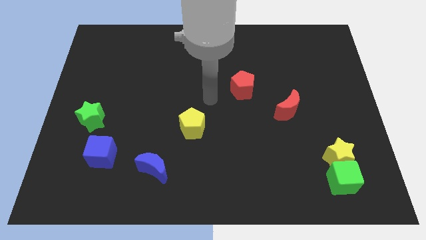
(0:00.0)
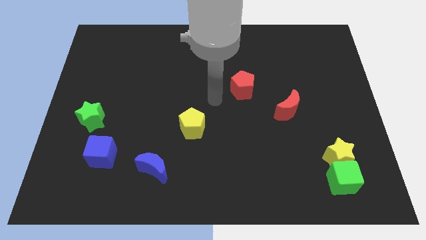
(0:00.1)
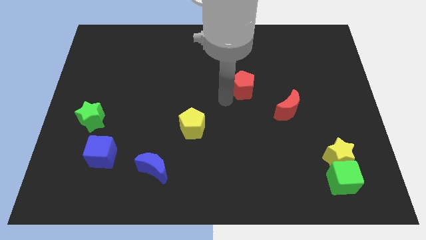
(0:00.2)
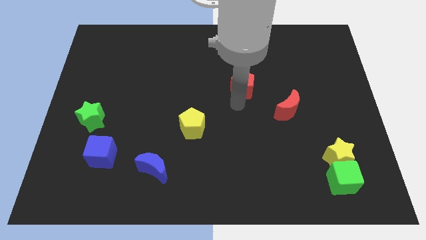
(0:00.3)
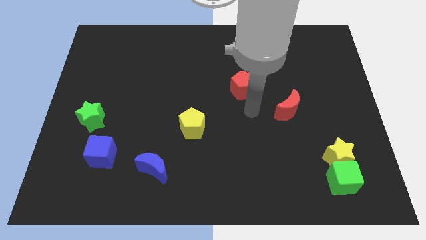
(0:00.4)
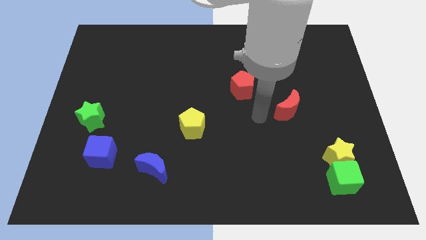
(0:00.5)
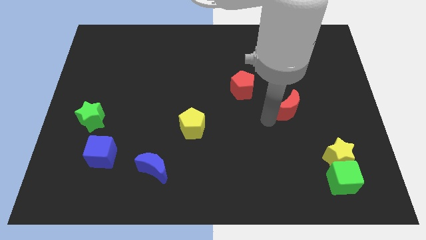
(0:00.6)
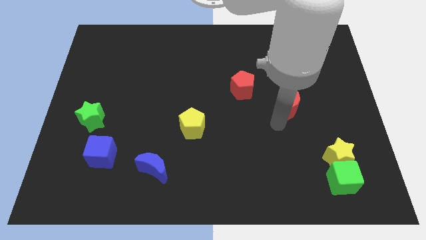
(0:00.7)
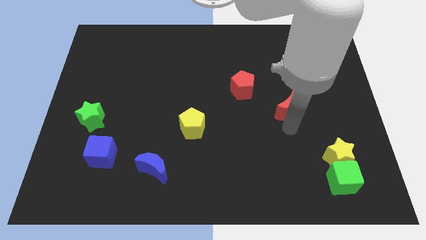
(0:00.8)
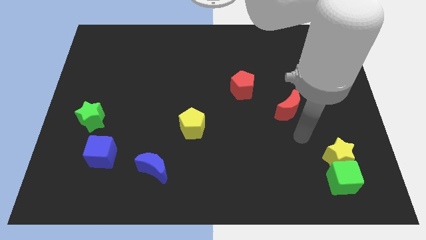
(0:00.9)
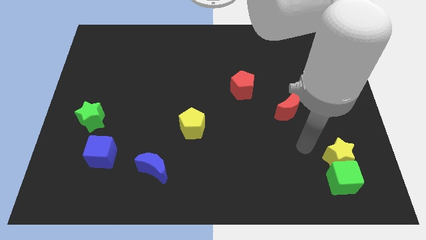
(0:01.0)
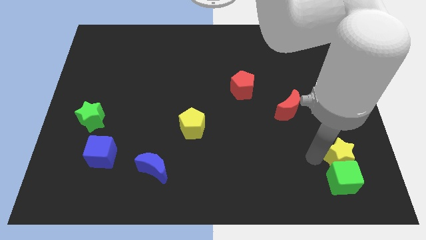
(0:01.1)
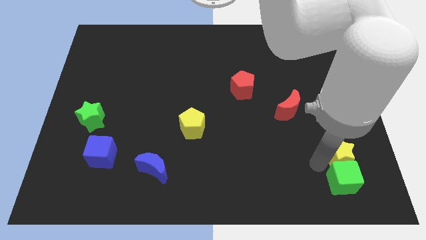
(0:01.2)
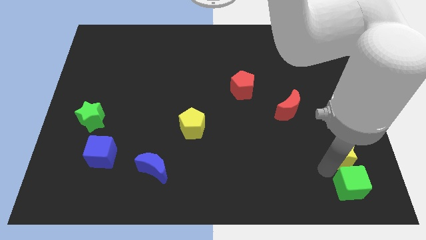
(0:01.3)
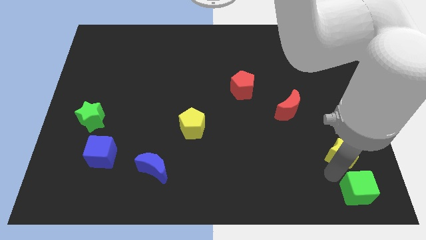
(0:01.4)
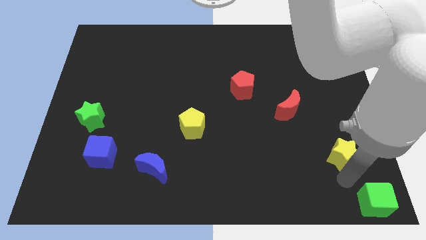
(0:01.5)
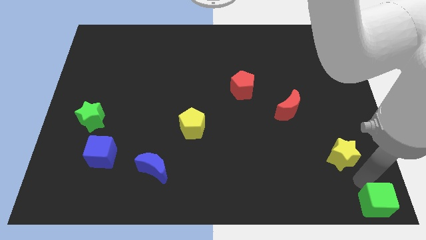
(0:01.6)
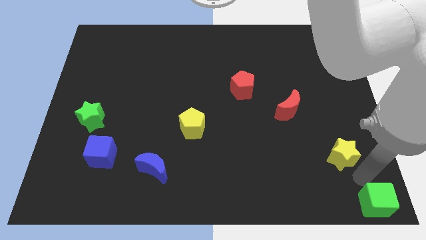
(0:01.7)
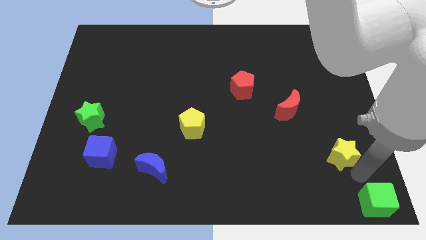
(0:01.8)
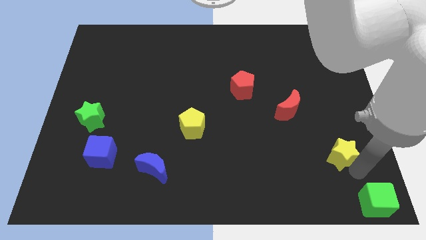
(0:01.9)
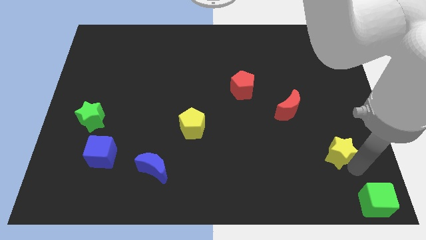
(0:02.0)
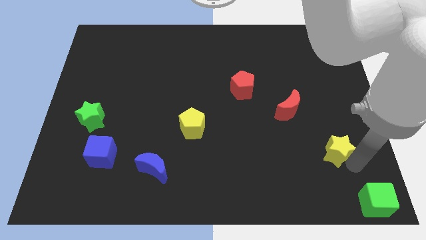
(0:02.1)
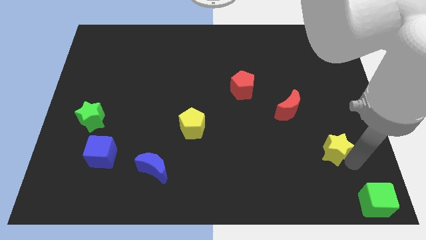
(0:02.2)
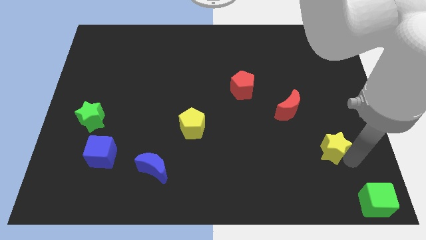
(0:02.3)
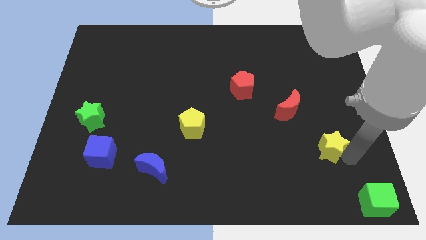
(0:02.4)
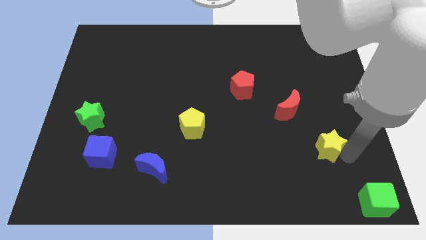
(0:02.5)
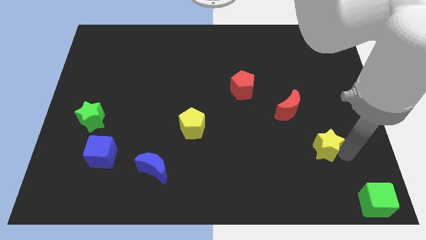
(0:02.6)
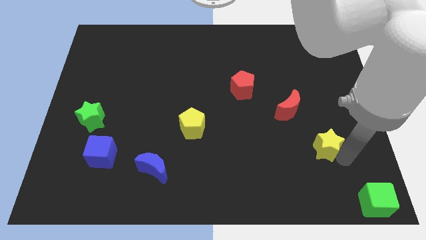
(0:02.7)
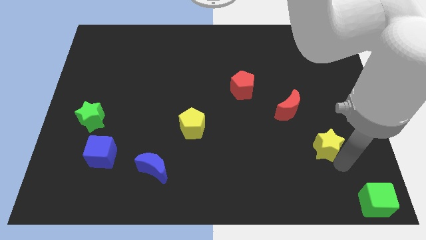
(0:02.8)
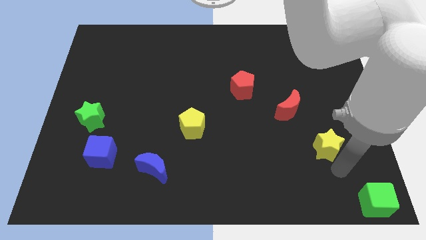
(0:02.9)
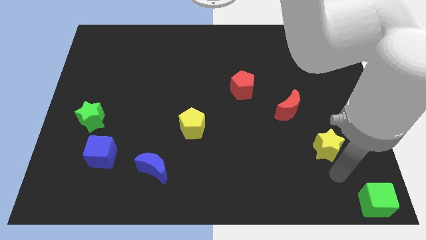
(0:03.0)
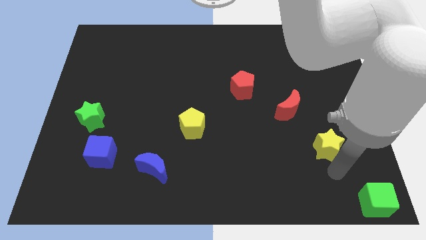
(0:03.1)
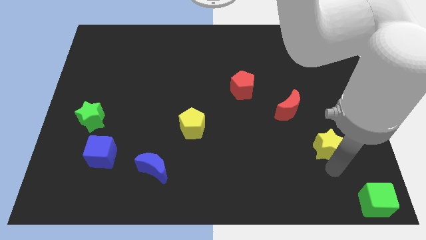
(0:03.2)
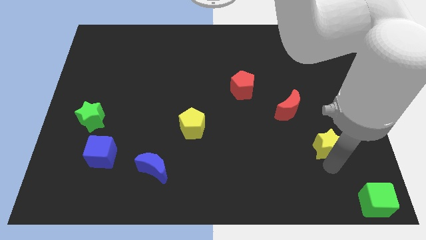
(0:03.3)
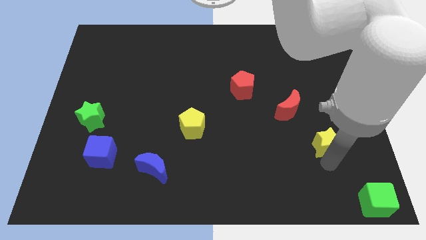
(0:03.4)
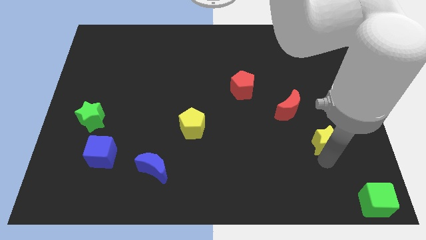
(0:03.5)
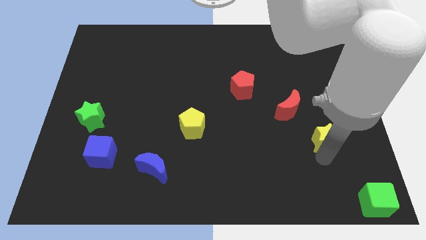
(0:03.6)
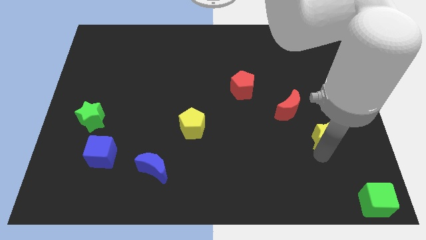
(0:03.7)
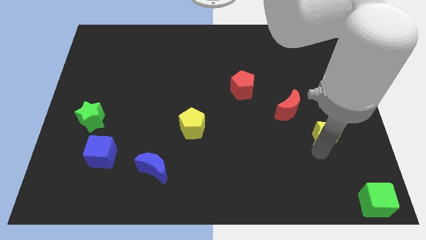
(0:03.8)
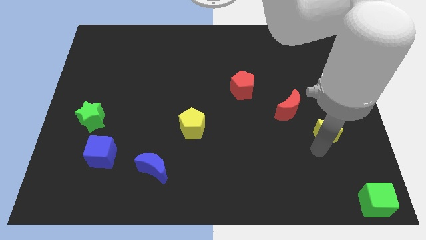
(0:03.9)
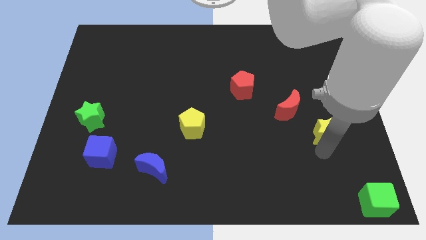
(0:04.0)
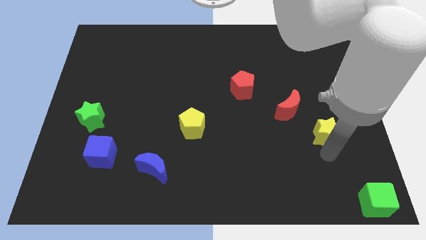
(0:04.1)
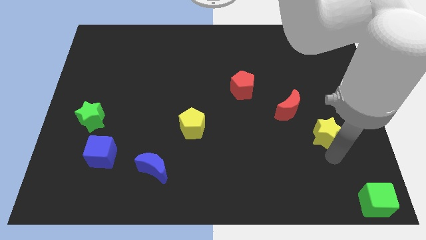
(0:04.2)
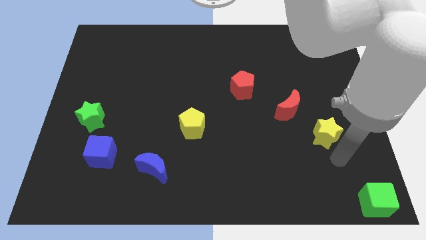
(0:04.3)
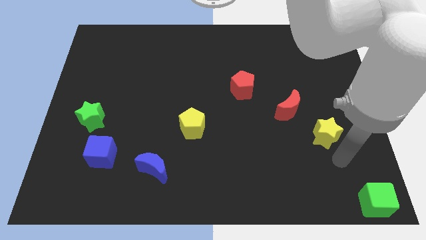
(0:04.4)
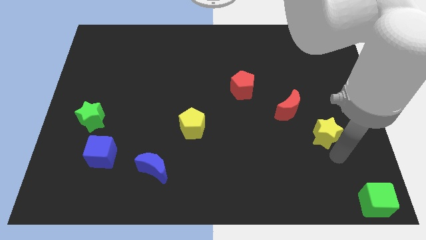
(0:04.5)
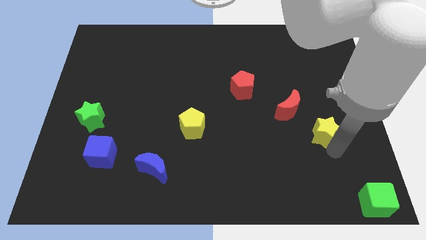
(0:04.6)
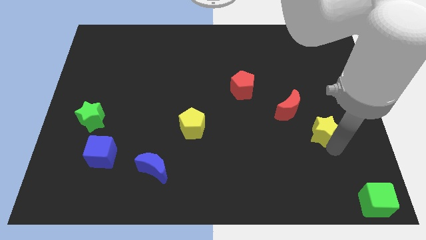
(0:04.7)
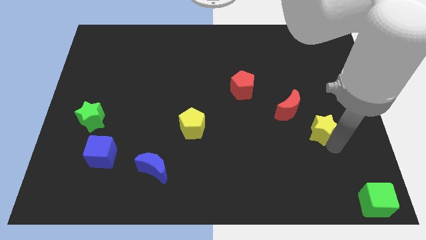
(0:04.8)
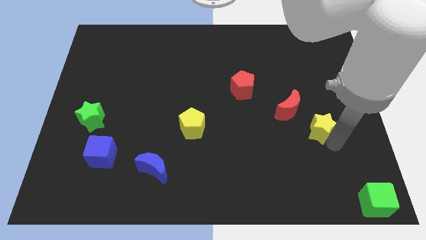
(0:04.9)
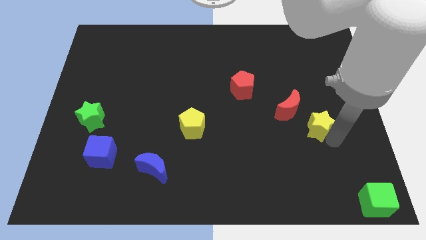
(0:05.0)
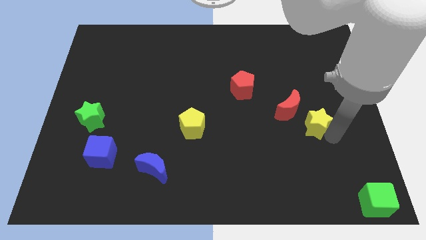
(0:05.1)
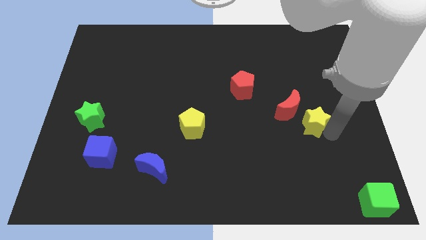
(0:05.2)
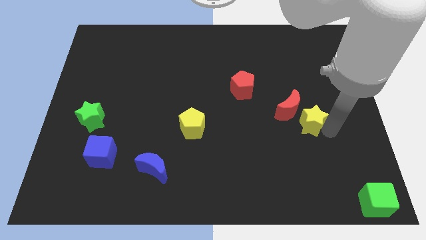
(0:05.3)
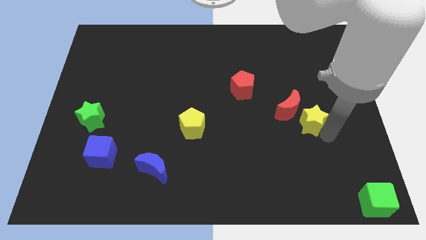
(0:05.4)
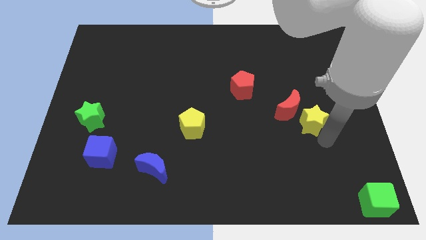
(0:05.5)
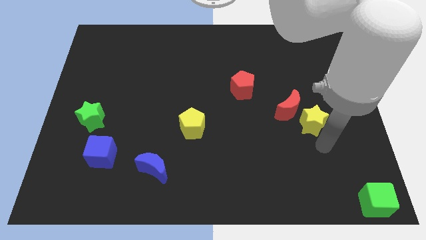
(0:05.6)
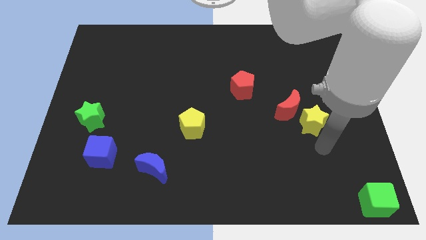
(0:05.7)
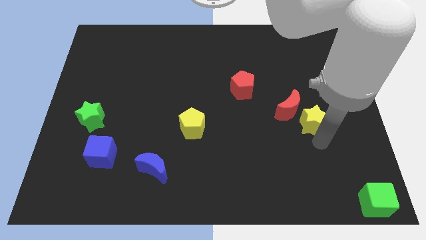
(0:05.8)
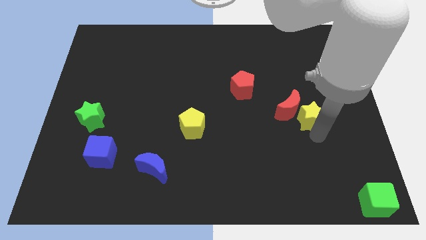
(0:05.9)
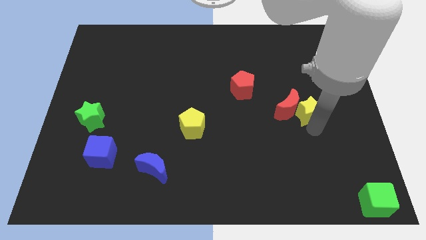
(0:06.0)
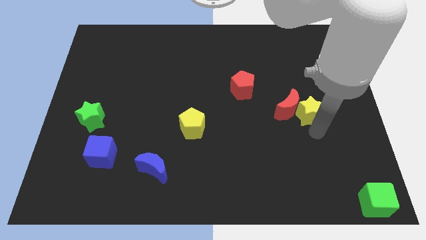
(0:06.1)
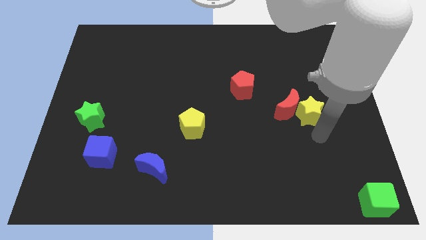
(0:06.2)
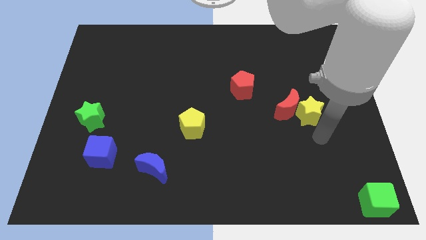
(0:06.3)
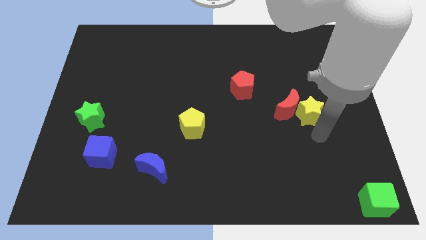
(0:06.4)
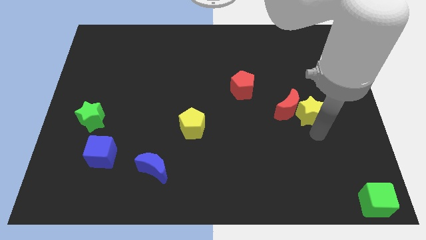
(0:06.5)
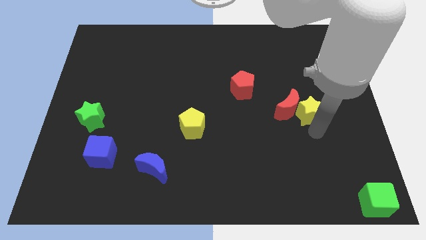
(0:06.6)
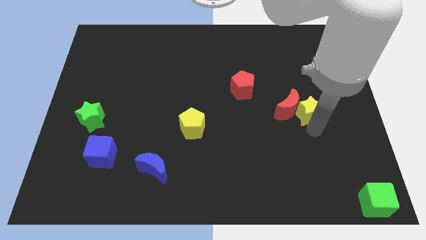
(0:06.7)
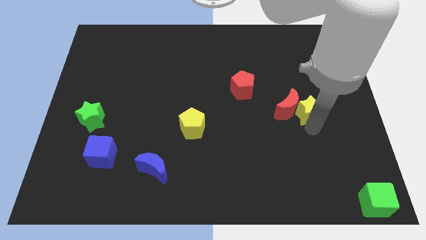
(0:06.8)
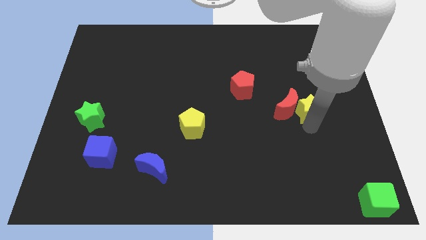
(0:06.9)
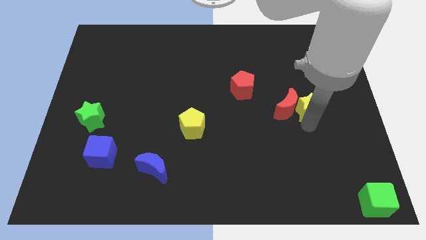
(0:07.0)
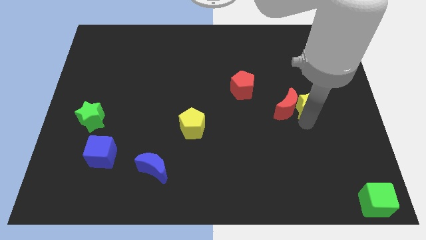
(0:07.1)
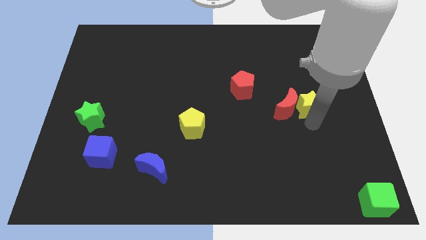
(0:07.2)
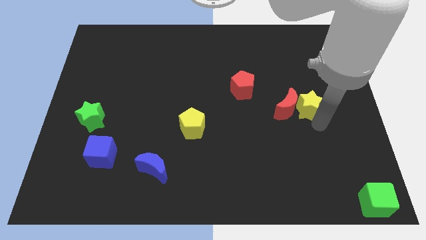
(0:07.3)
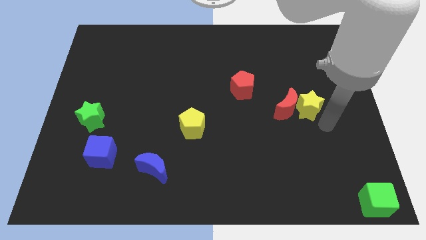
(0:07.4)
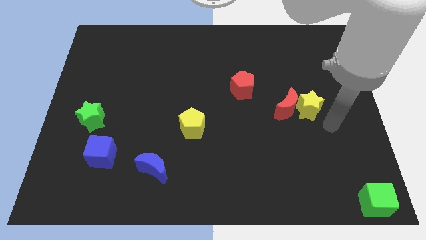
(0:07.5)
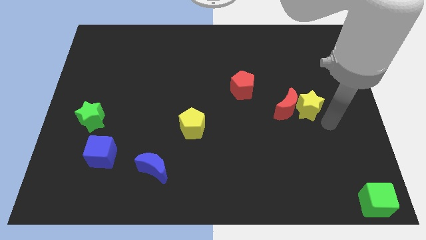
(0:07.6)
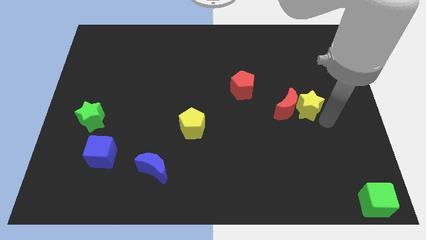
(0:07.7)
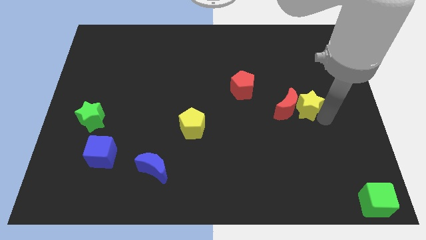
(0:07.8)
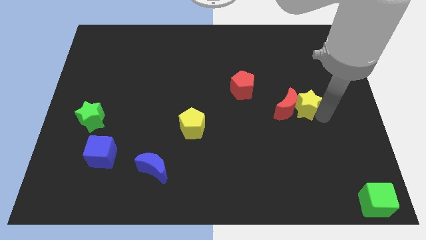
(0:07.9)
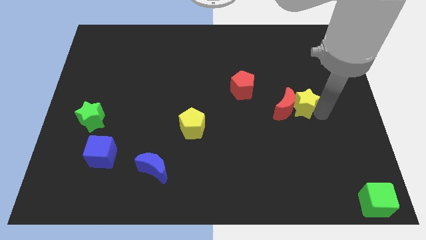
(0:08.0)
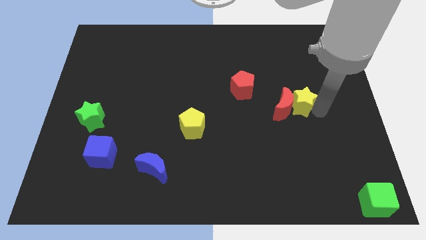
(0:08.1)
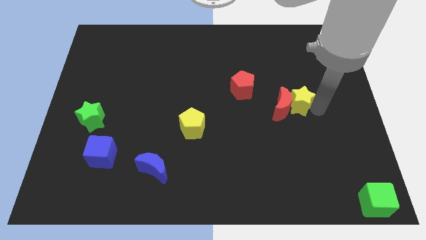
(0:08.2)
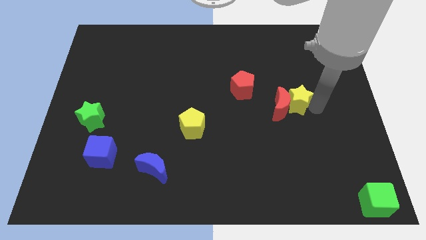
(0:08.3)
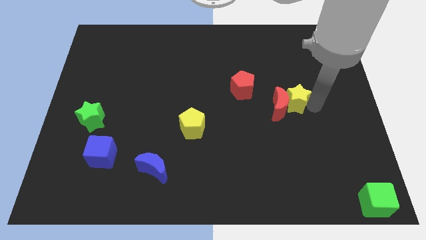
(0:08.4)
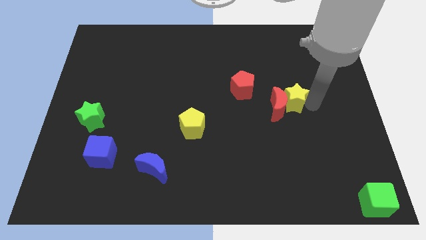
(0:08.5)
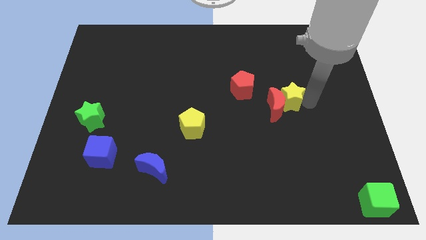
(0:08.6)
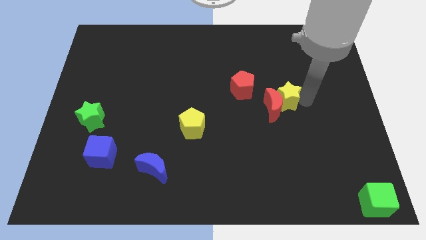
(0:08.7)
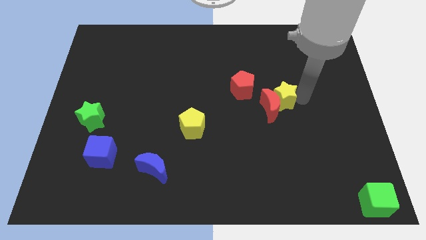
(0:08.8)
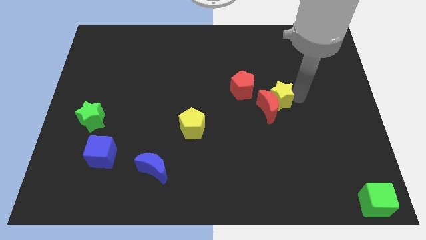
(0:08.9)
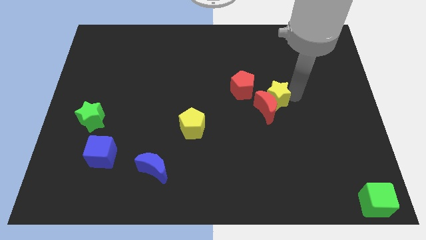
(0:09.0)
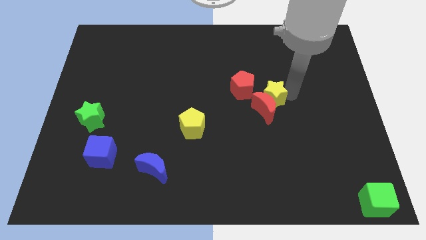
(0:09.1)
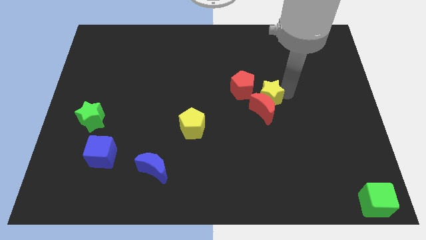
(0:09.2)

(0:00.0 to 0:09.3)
slide the yellow star diagonally up and to the left of the red moon
